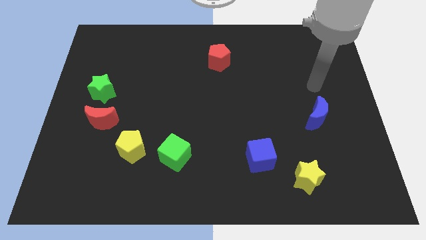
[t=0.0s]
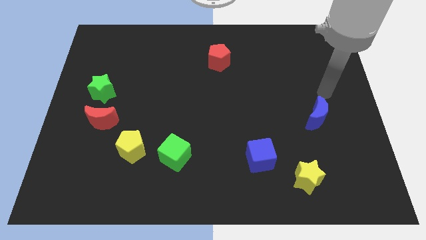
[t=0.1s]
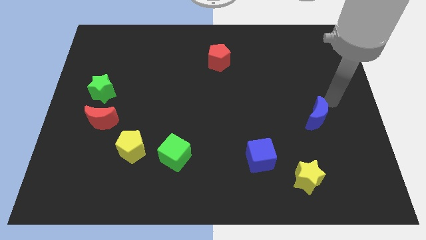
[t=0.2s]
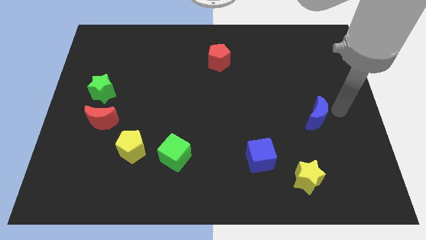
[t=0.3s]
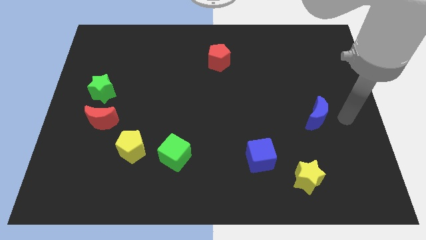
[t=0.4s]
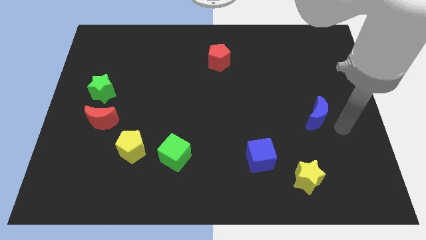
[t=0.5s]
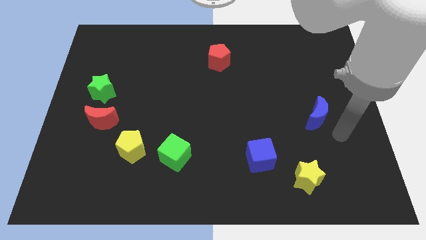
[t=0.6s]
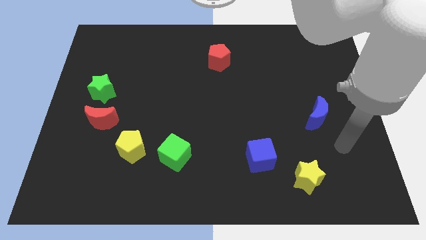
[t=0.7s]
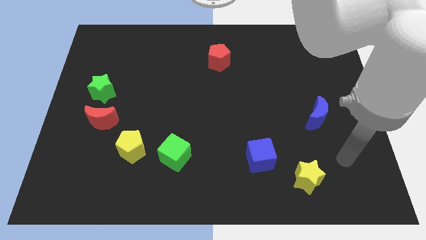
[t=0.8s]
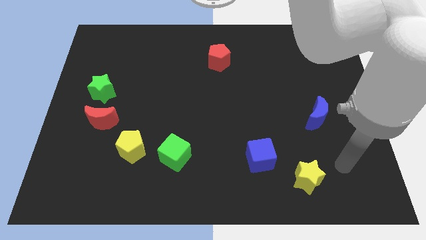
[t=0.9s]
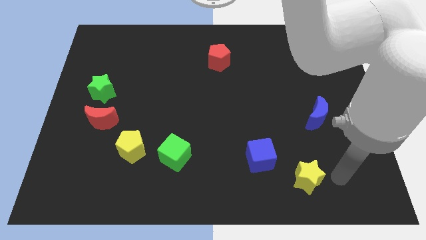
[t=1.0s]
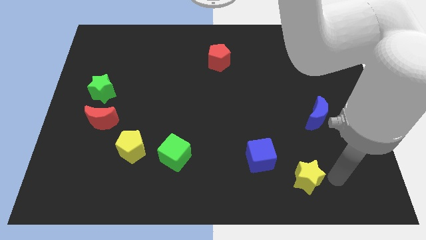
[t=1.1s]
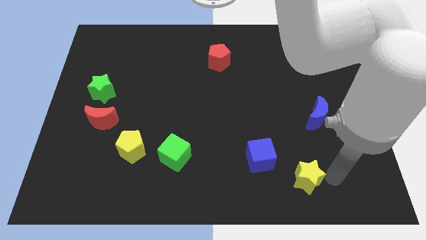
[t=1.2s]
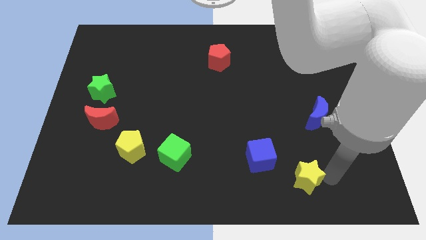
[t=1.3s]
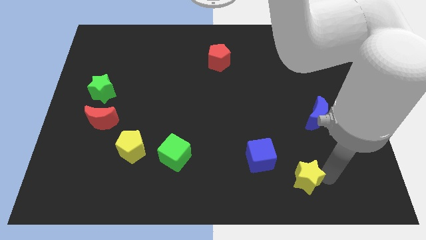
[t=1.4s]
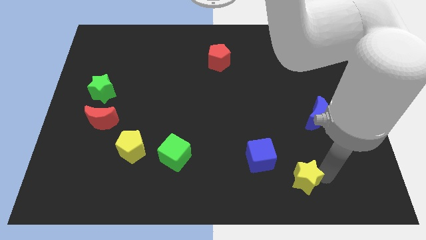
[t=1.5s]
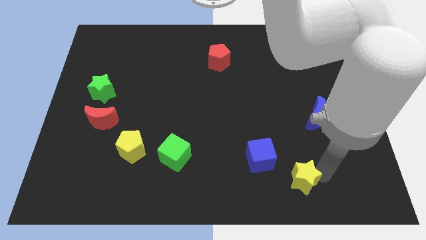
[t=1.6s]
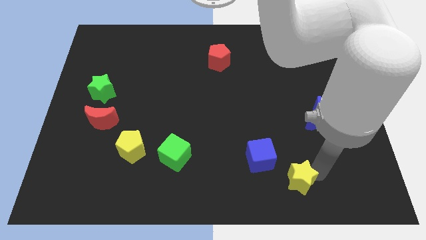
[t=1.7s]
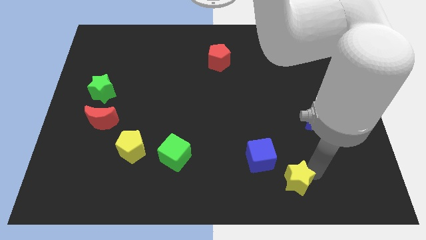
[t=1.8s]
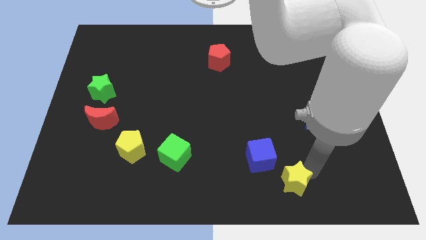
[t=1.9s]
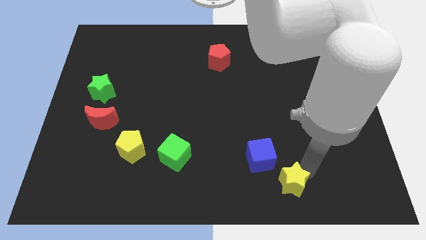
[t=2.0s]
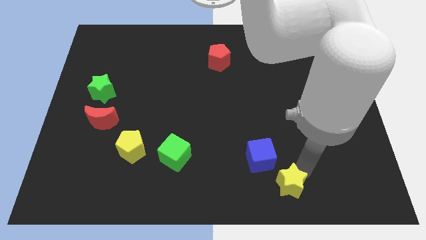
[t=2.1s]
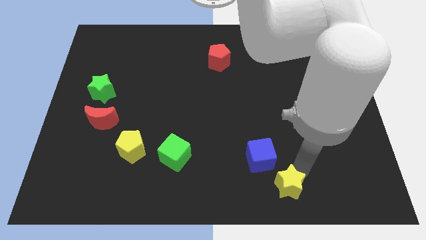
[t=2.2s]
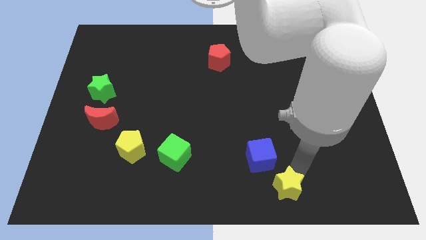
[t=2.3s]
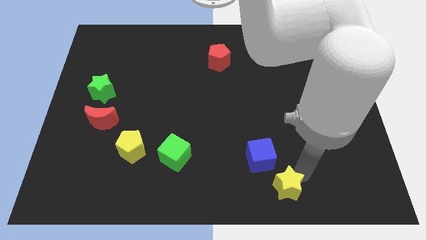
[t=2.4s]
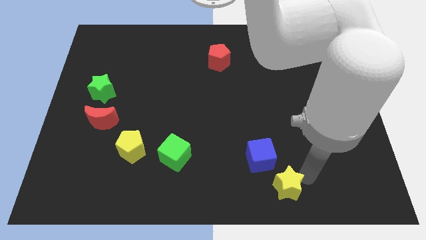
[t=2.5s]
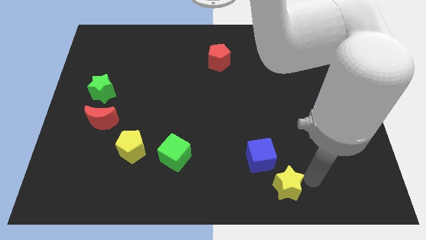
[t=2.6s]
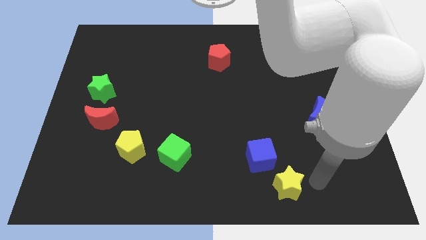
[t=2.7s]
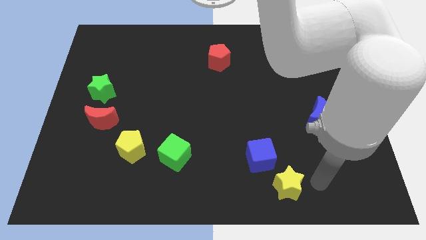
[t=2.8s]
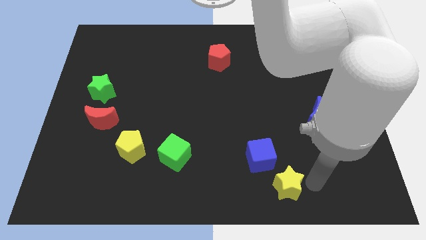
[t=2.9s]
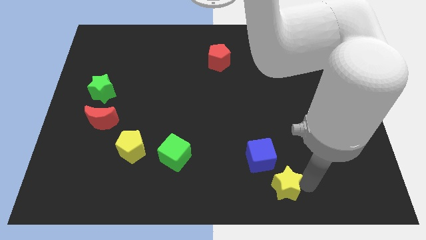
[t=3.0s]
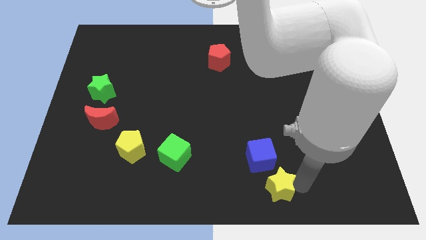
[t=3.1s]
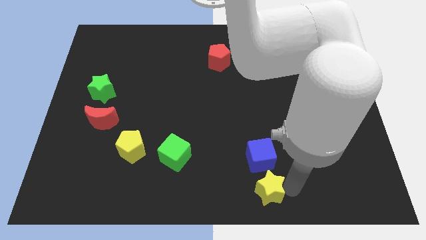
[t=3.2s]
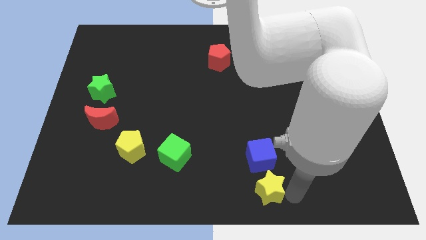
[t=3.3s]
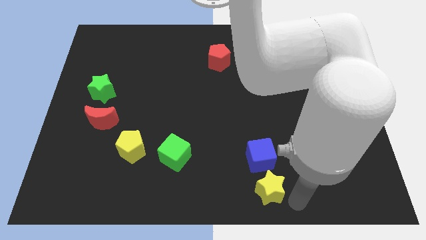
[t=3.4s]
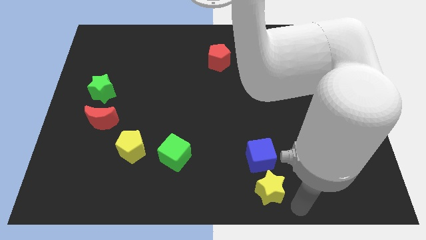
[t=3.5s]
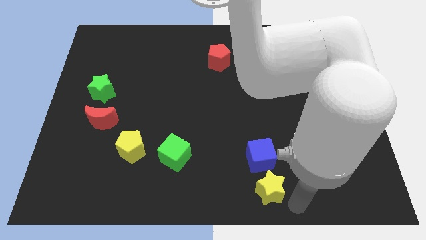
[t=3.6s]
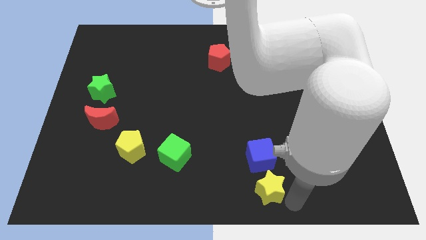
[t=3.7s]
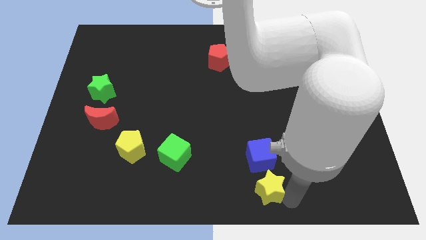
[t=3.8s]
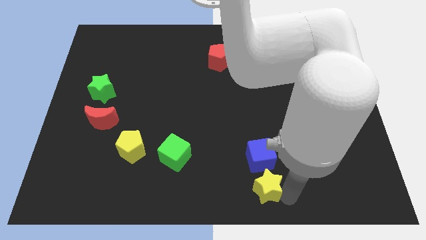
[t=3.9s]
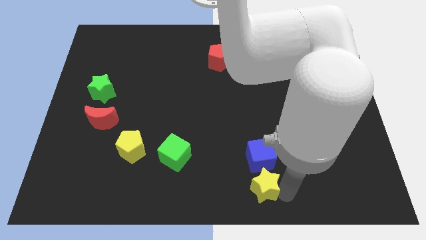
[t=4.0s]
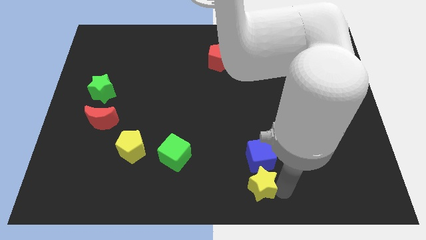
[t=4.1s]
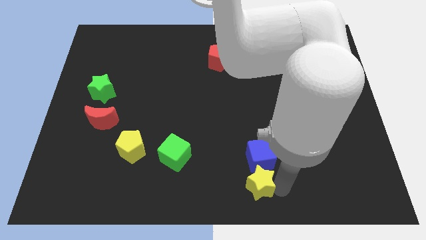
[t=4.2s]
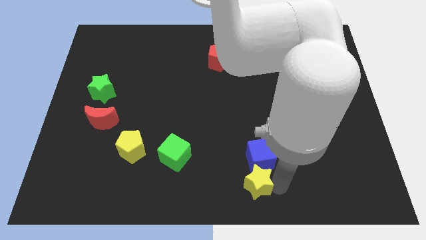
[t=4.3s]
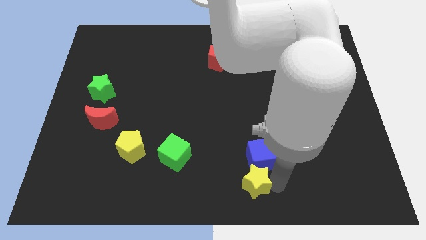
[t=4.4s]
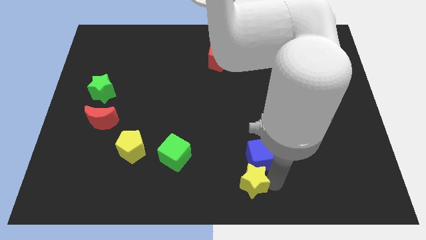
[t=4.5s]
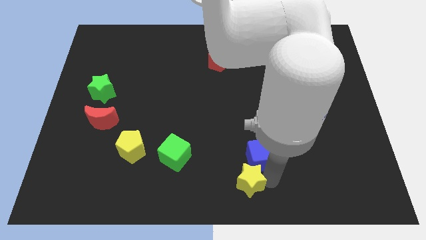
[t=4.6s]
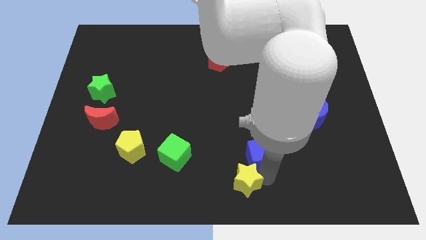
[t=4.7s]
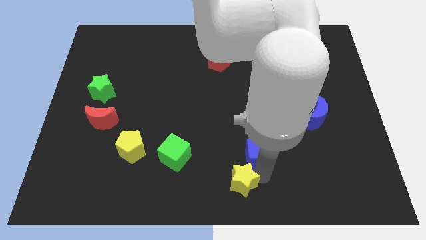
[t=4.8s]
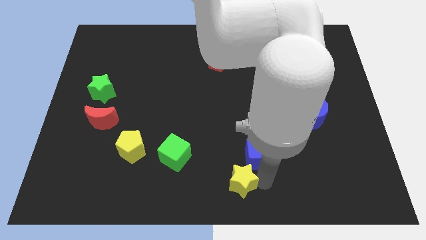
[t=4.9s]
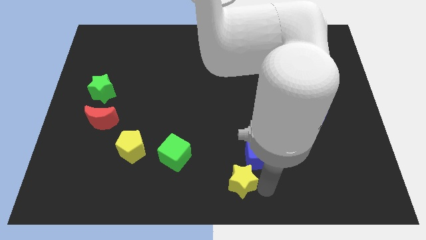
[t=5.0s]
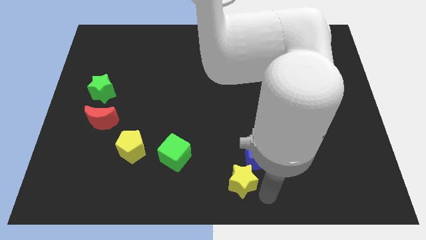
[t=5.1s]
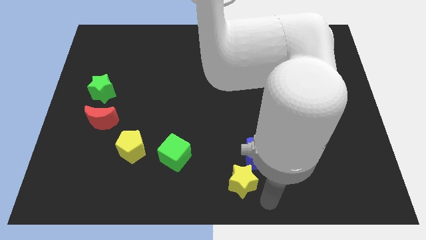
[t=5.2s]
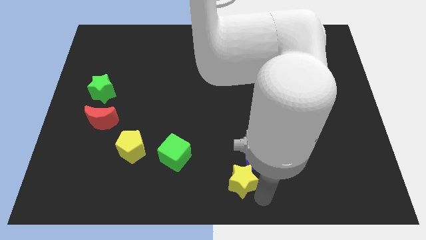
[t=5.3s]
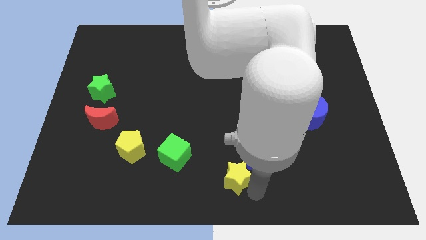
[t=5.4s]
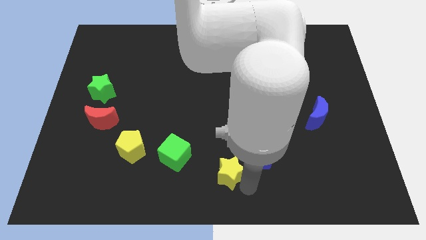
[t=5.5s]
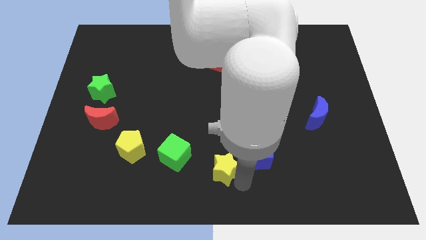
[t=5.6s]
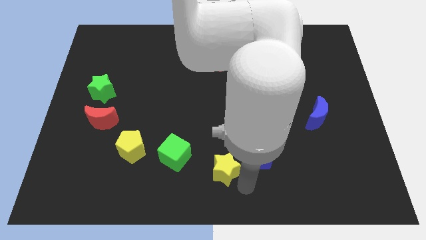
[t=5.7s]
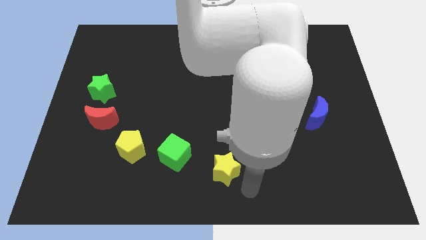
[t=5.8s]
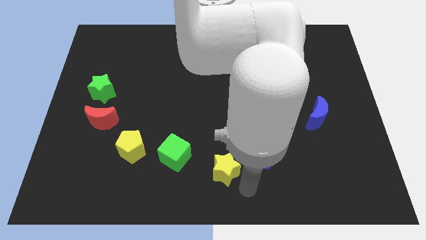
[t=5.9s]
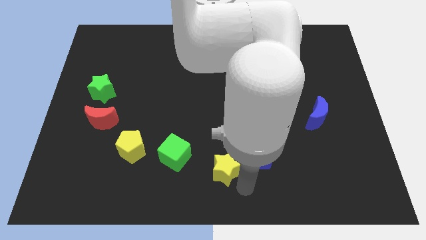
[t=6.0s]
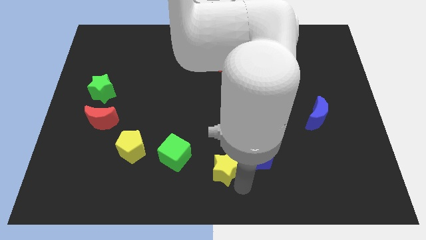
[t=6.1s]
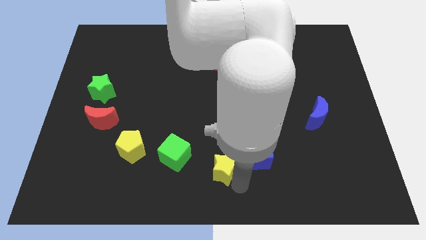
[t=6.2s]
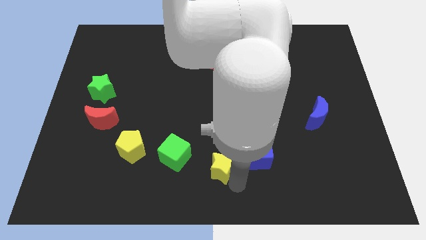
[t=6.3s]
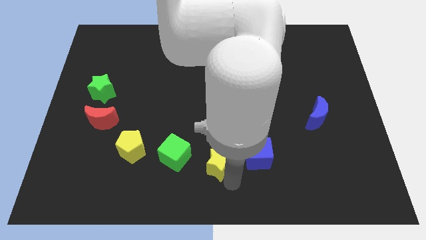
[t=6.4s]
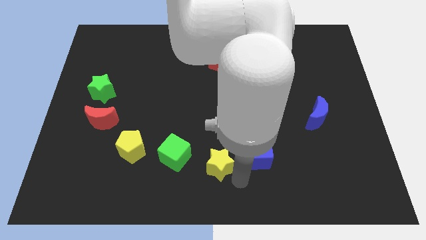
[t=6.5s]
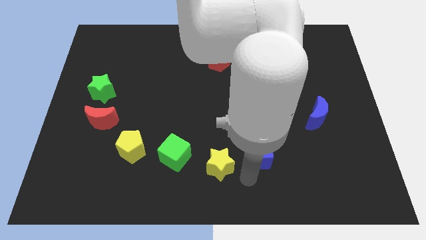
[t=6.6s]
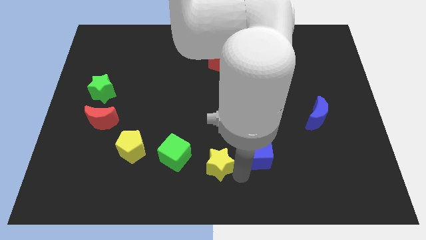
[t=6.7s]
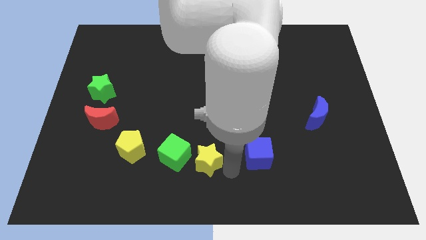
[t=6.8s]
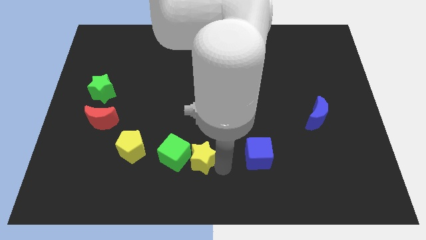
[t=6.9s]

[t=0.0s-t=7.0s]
move the yellow star to the right side of the yellow pentagon

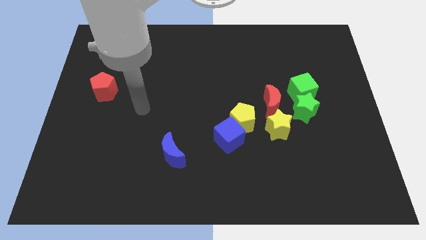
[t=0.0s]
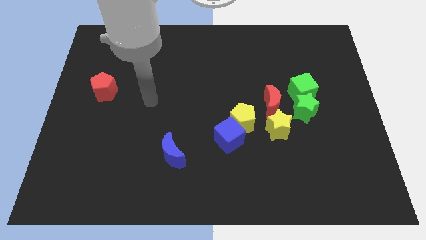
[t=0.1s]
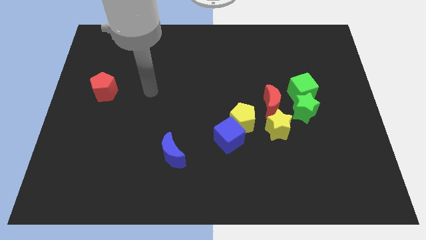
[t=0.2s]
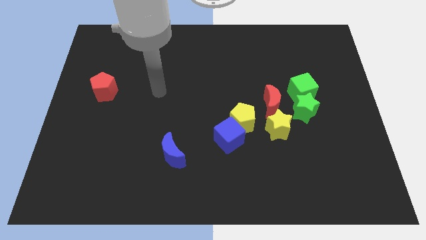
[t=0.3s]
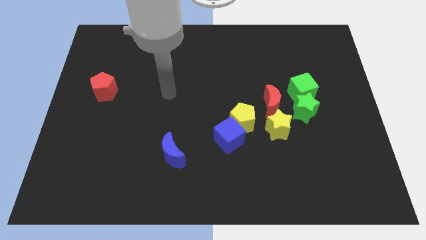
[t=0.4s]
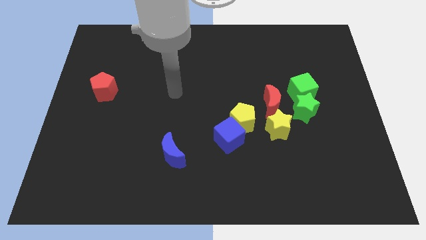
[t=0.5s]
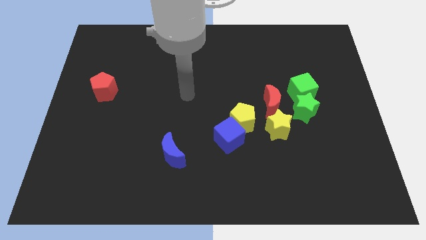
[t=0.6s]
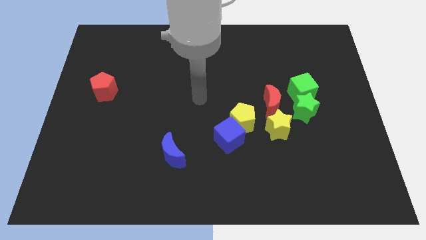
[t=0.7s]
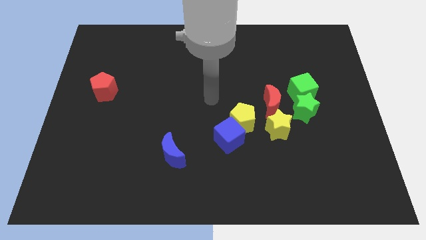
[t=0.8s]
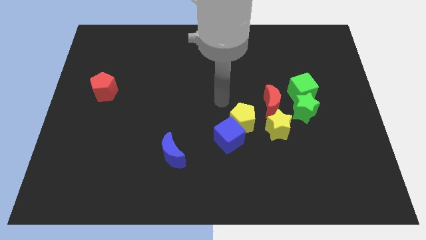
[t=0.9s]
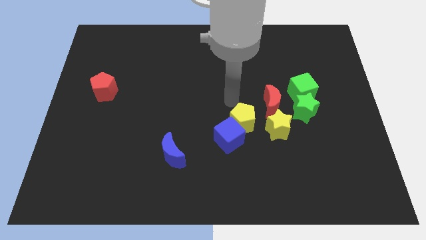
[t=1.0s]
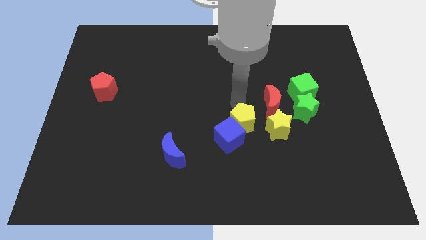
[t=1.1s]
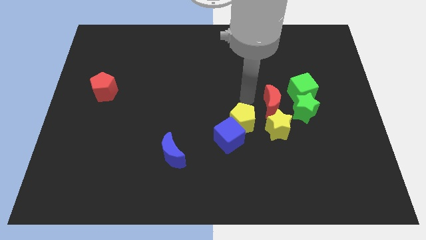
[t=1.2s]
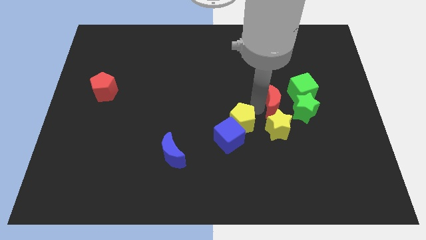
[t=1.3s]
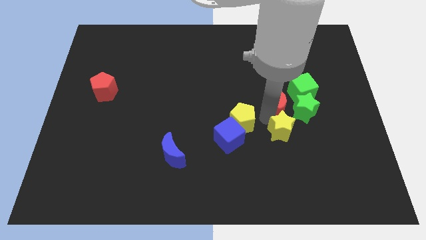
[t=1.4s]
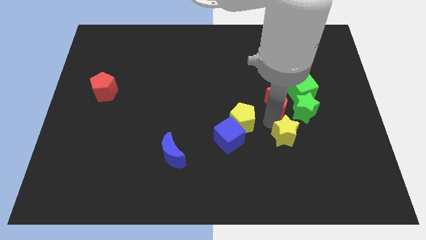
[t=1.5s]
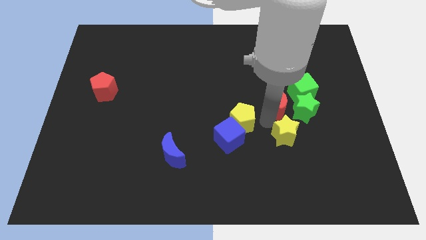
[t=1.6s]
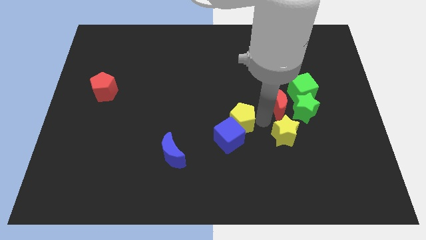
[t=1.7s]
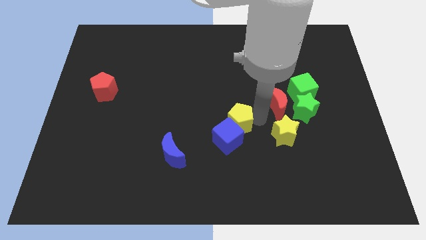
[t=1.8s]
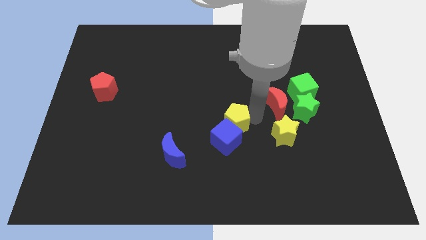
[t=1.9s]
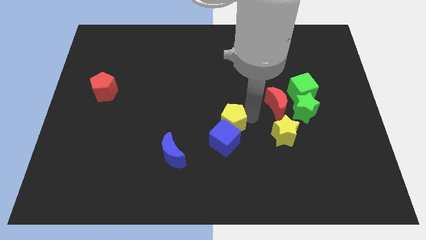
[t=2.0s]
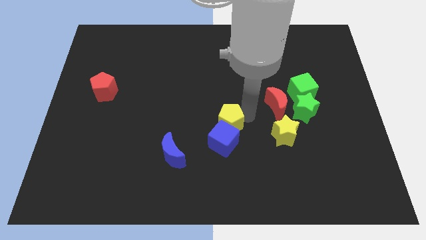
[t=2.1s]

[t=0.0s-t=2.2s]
slide the yellow pentagon diagonally up and to the left of the blue cube
